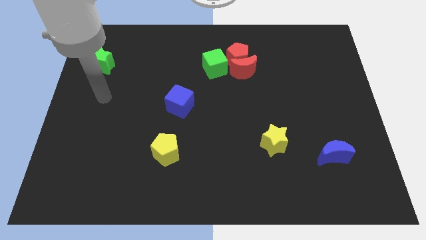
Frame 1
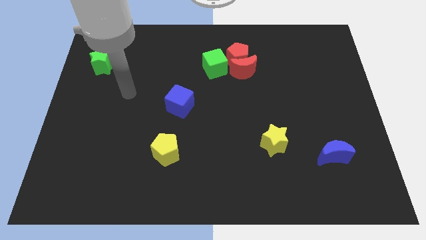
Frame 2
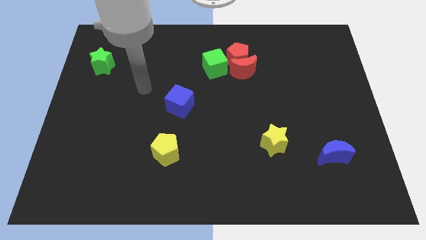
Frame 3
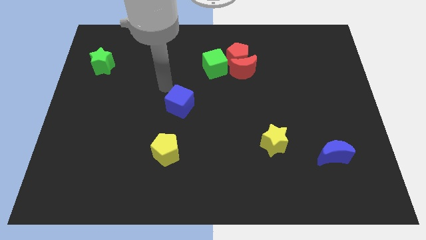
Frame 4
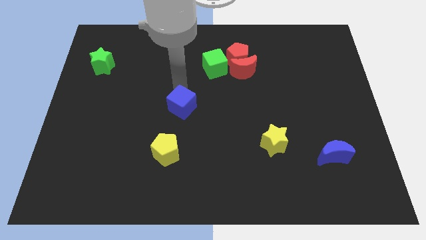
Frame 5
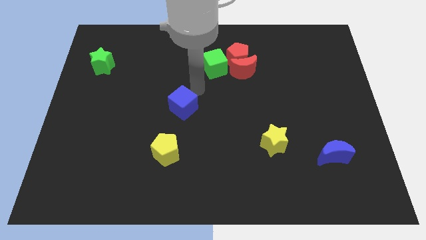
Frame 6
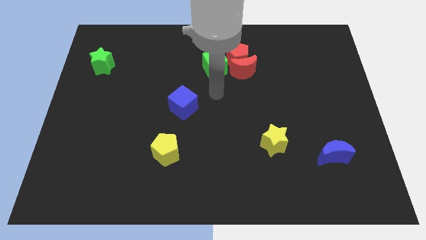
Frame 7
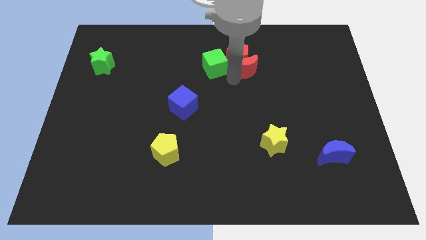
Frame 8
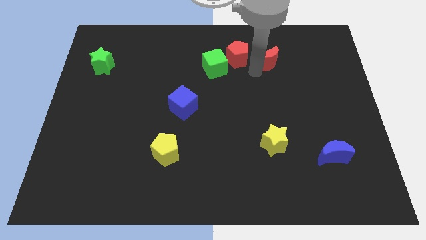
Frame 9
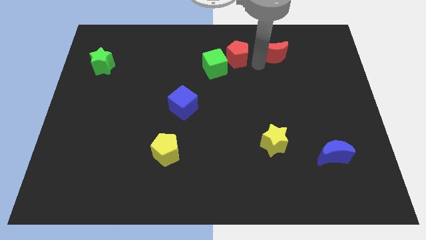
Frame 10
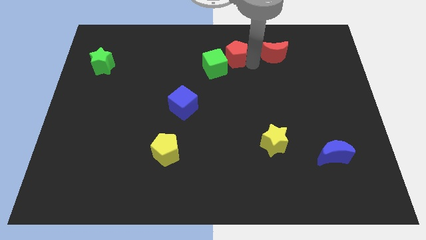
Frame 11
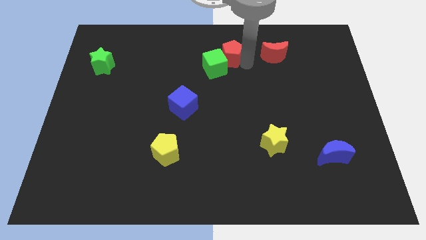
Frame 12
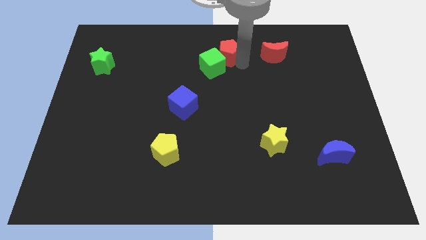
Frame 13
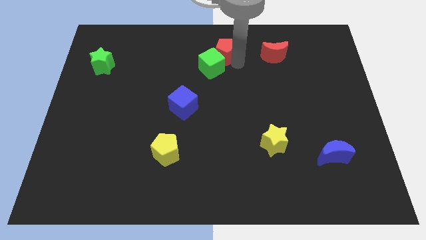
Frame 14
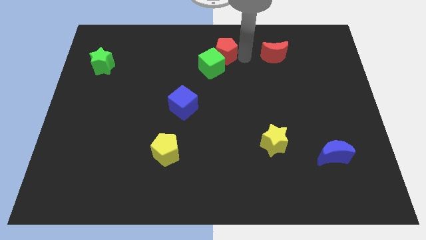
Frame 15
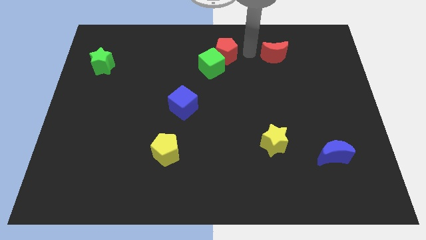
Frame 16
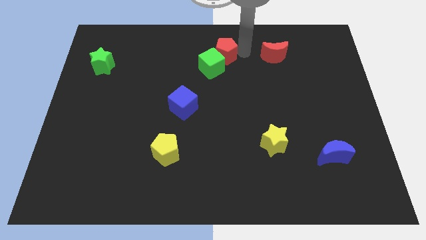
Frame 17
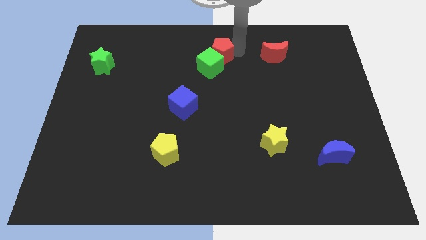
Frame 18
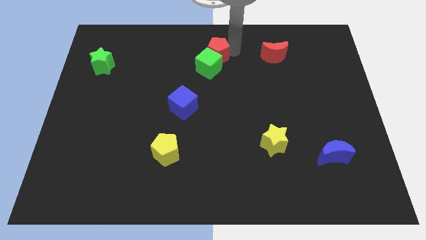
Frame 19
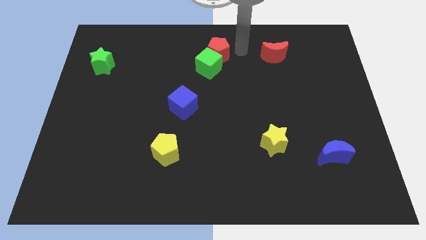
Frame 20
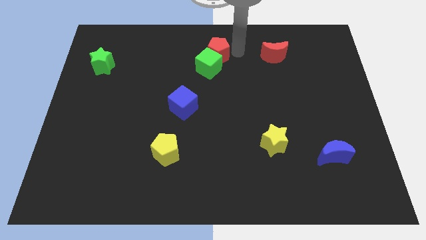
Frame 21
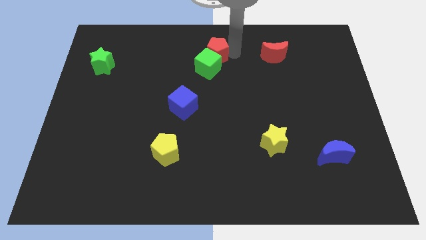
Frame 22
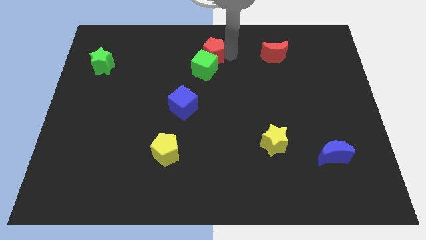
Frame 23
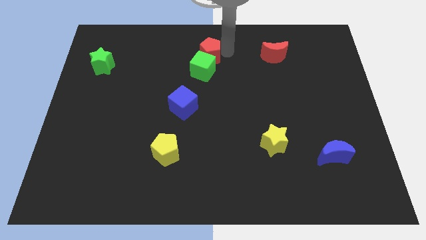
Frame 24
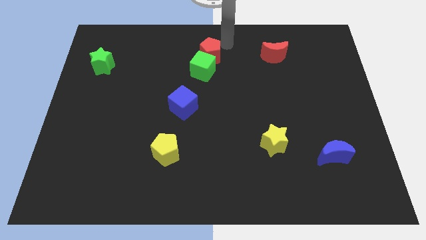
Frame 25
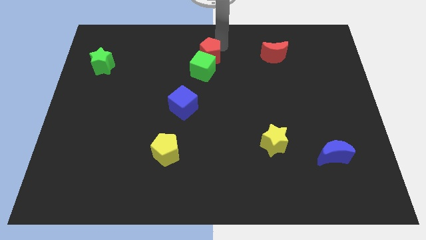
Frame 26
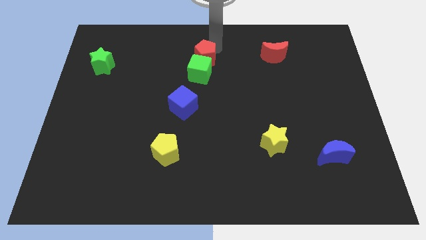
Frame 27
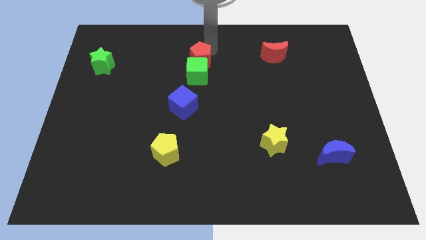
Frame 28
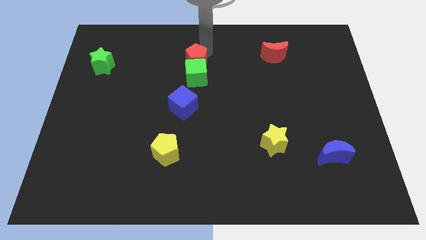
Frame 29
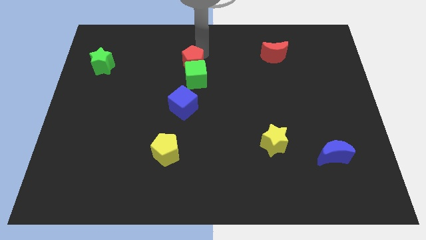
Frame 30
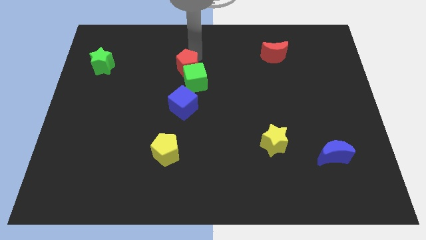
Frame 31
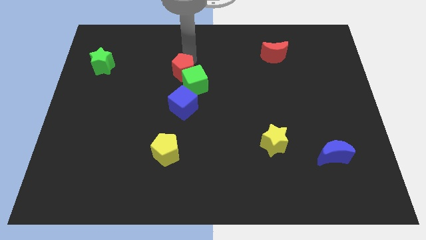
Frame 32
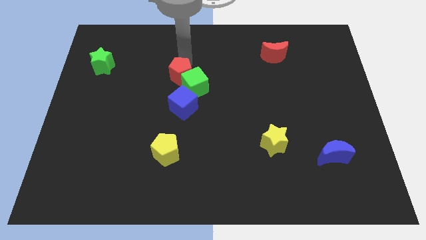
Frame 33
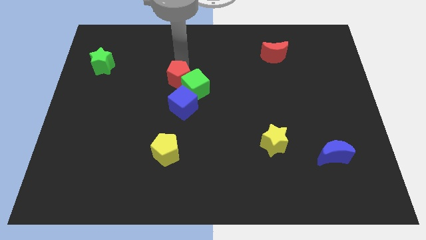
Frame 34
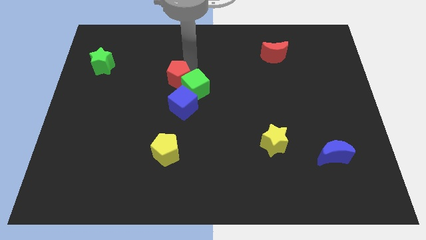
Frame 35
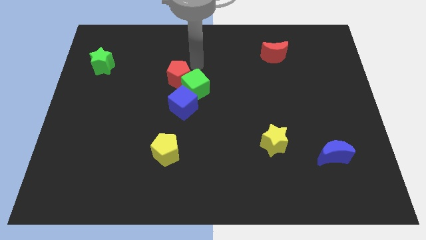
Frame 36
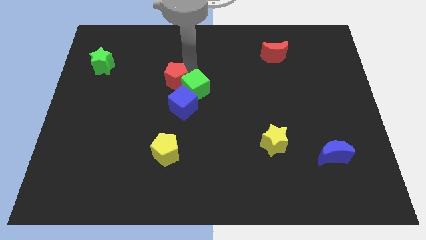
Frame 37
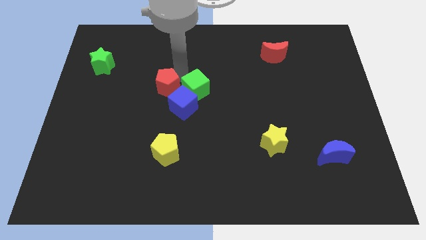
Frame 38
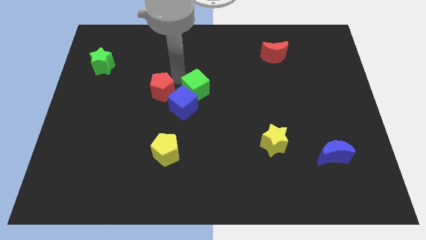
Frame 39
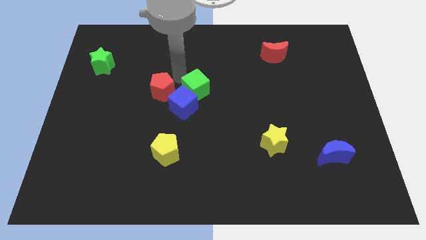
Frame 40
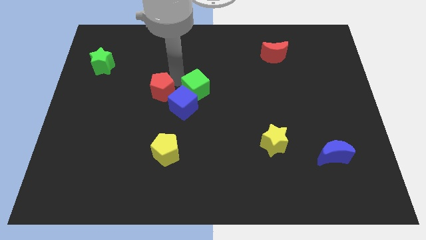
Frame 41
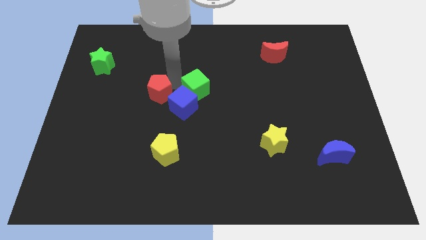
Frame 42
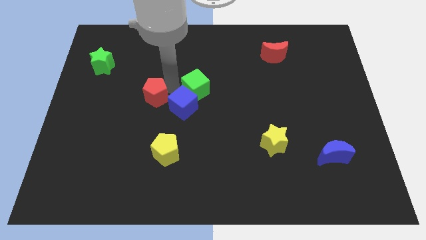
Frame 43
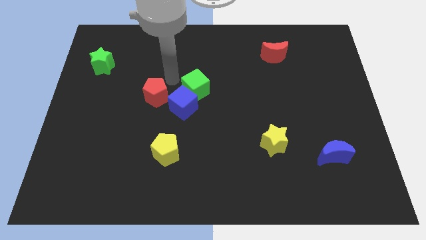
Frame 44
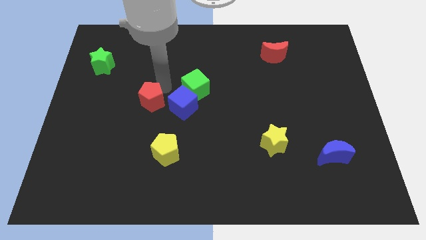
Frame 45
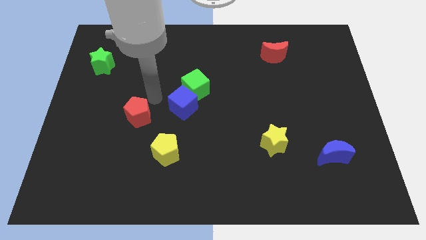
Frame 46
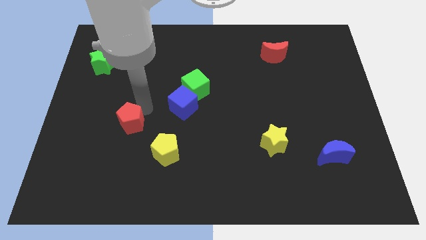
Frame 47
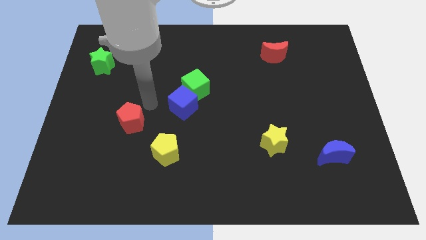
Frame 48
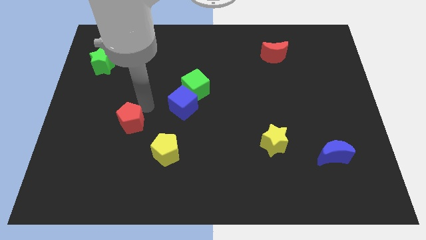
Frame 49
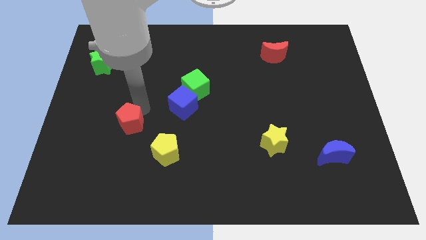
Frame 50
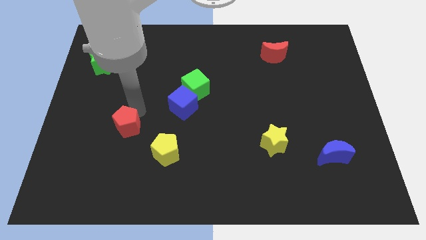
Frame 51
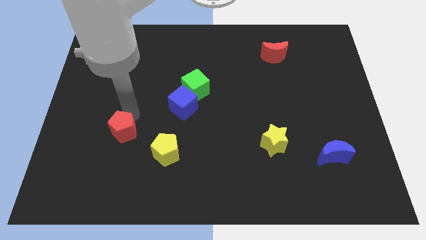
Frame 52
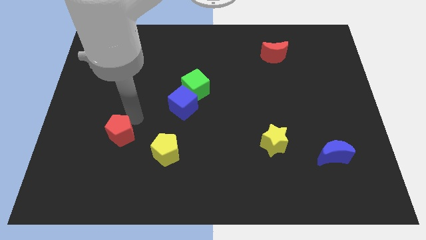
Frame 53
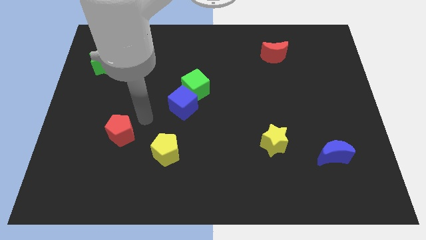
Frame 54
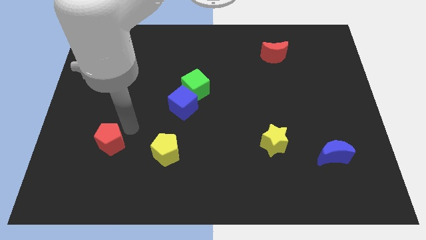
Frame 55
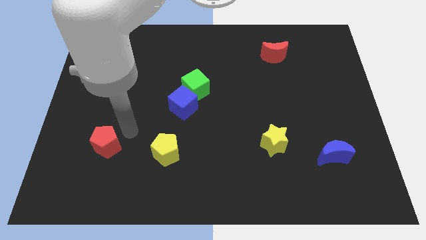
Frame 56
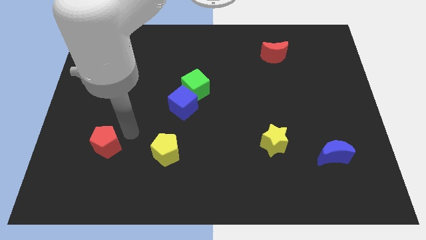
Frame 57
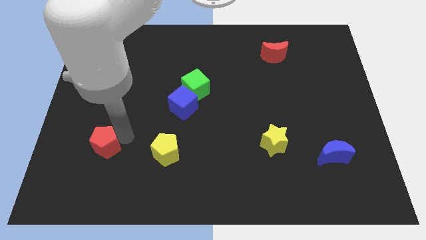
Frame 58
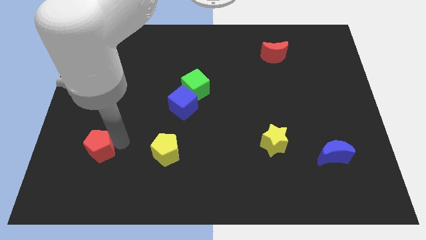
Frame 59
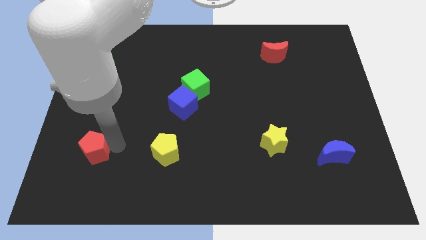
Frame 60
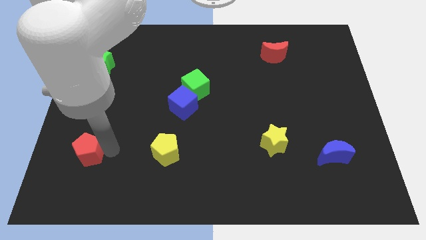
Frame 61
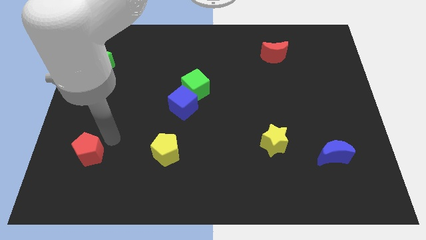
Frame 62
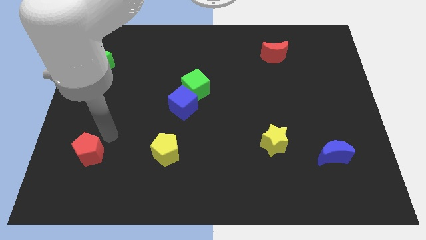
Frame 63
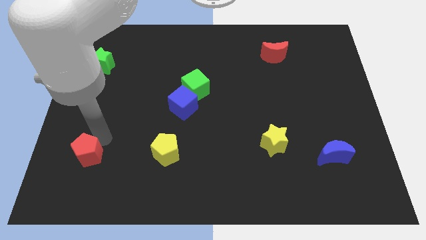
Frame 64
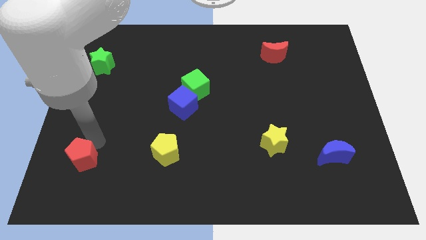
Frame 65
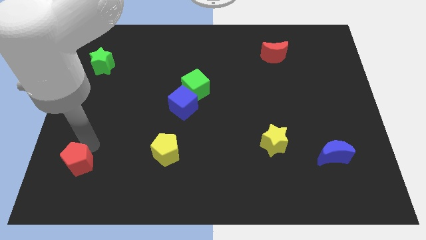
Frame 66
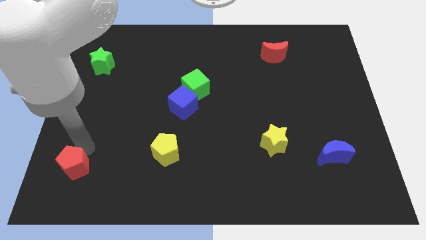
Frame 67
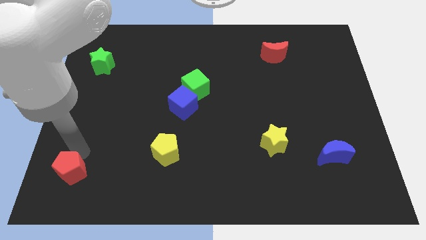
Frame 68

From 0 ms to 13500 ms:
push the red pentagon to the bottom left corner
